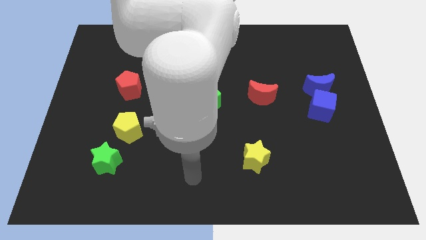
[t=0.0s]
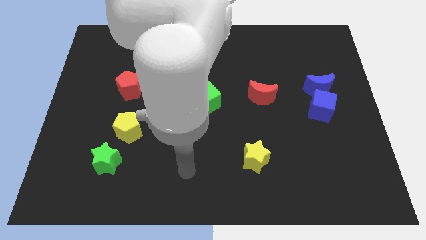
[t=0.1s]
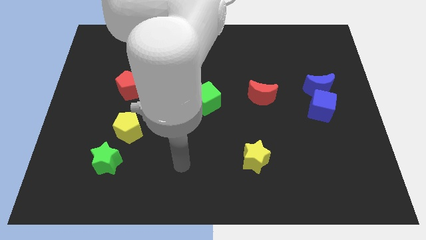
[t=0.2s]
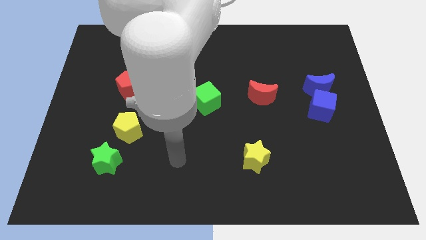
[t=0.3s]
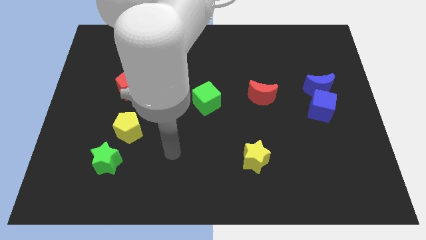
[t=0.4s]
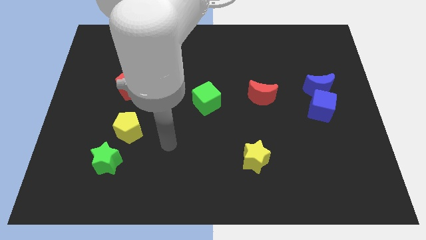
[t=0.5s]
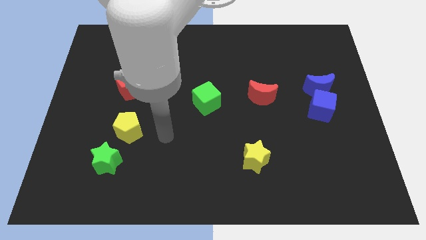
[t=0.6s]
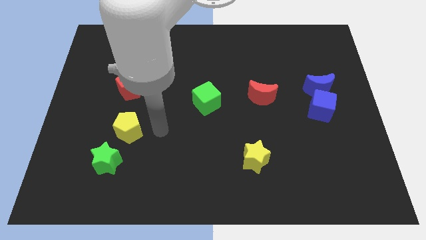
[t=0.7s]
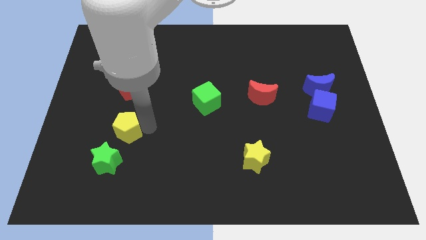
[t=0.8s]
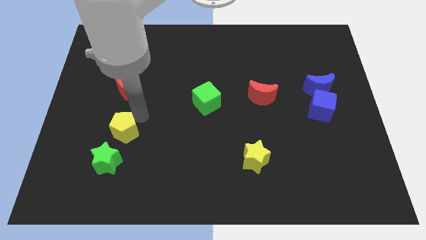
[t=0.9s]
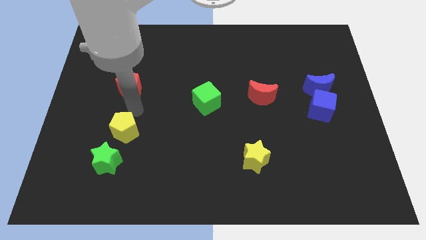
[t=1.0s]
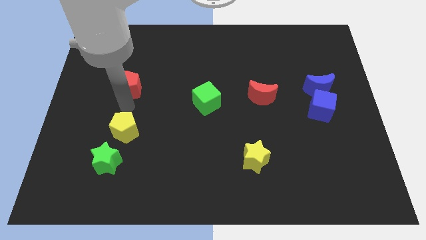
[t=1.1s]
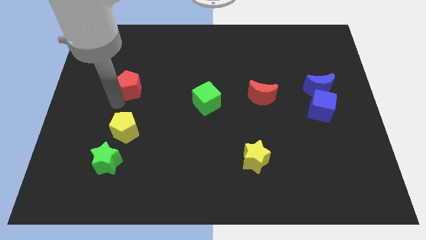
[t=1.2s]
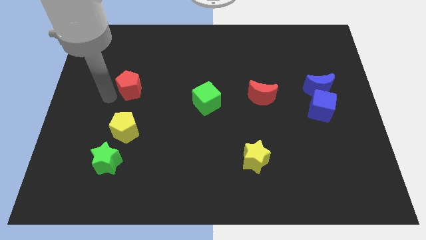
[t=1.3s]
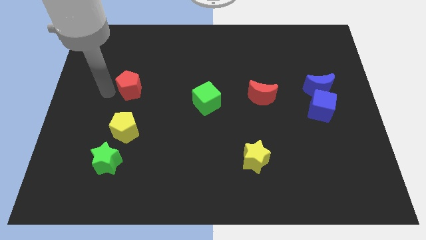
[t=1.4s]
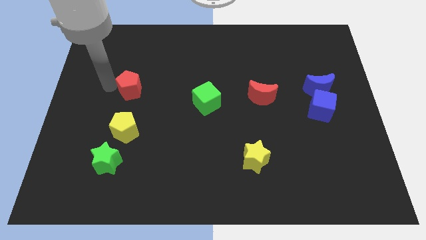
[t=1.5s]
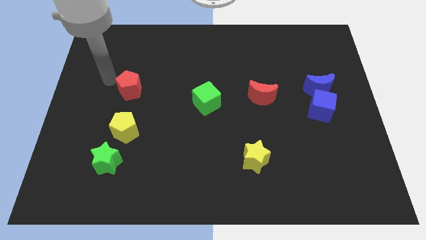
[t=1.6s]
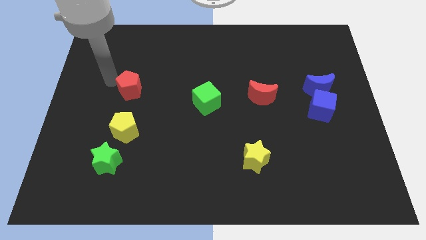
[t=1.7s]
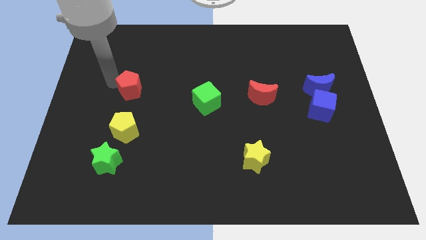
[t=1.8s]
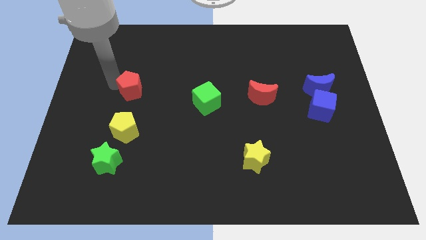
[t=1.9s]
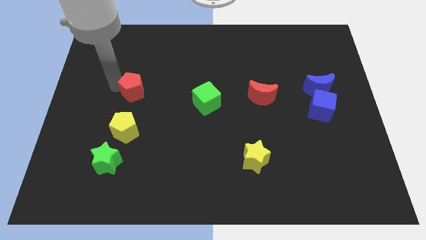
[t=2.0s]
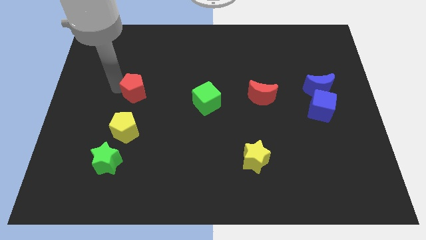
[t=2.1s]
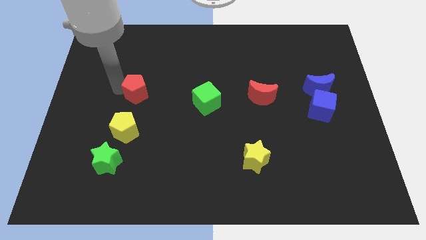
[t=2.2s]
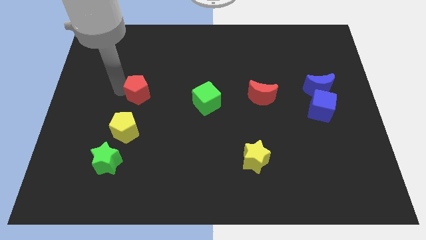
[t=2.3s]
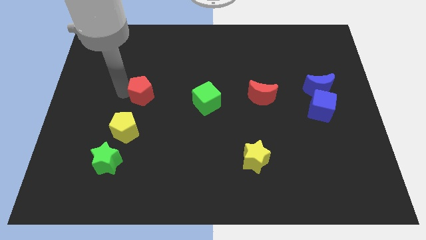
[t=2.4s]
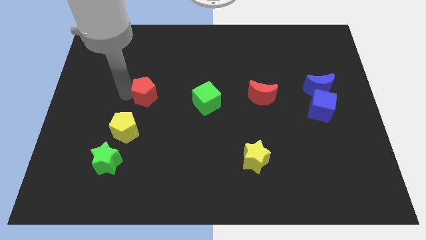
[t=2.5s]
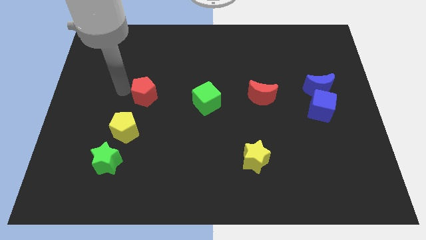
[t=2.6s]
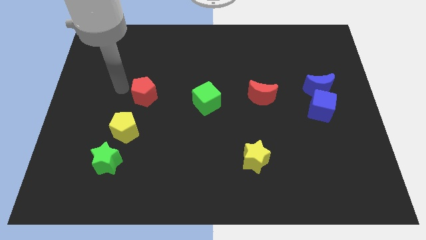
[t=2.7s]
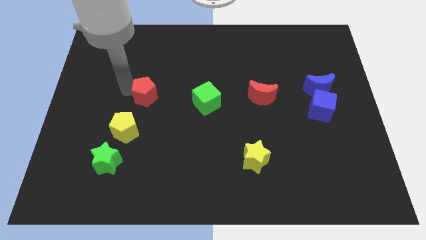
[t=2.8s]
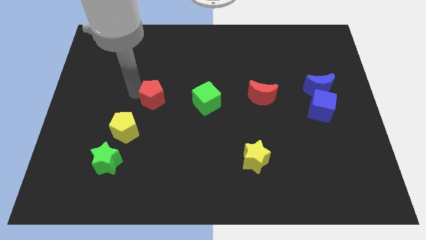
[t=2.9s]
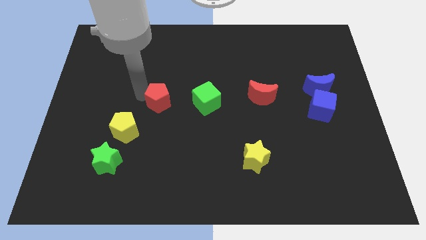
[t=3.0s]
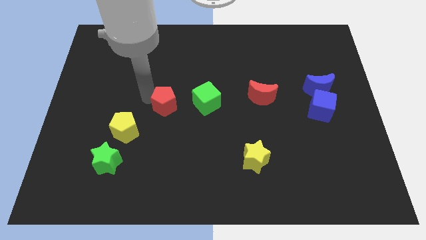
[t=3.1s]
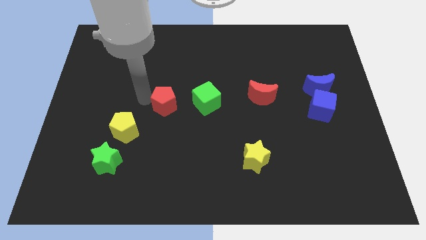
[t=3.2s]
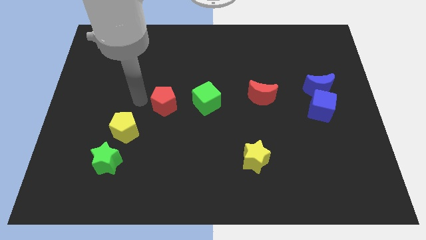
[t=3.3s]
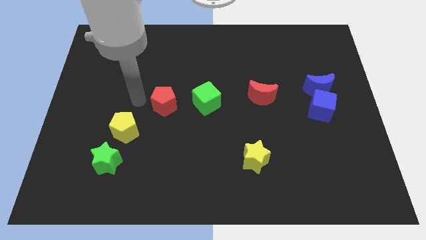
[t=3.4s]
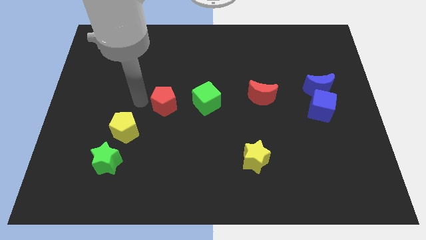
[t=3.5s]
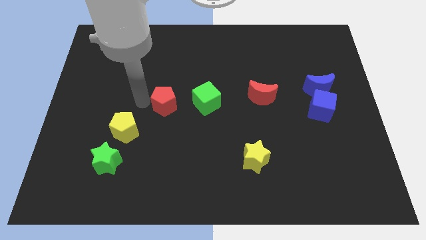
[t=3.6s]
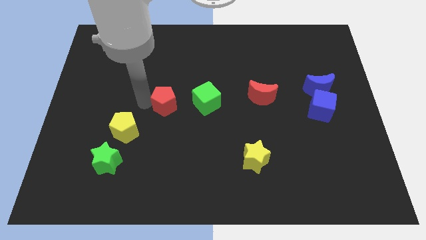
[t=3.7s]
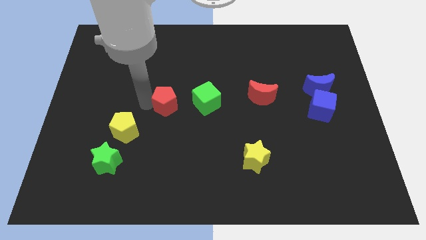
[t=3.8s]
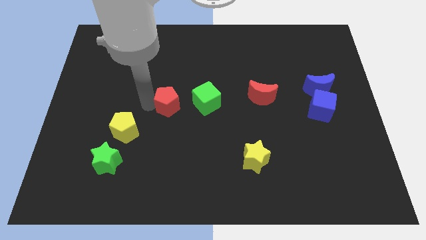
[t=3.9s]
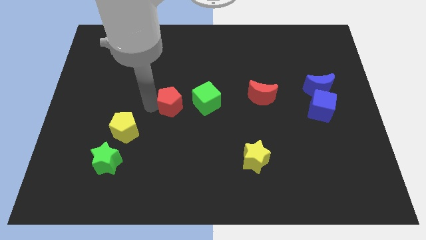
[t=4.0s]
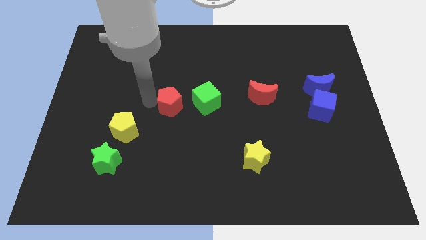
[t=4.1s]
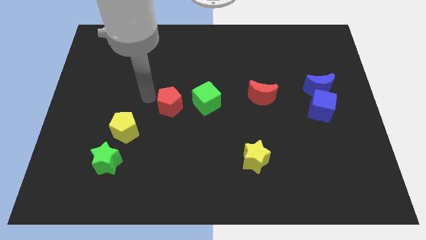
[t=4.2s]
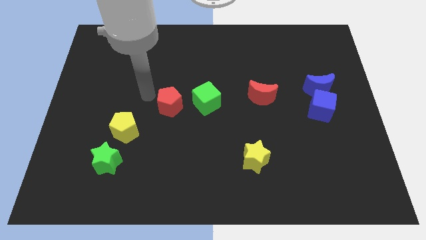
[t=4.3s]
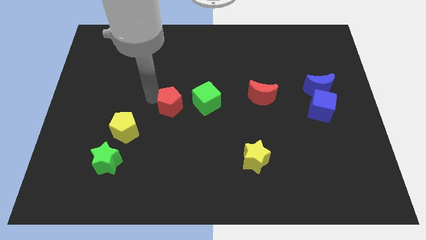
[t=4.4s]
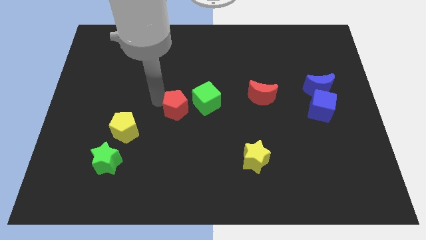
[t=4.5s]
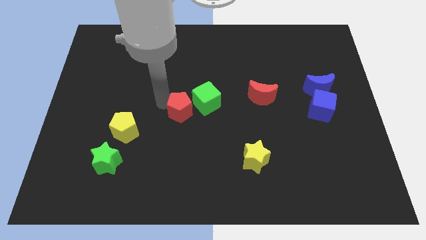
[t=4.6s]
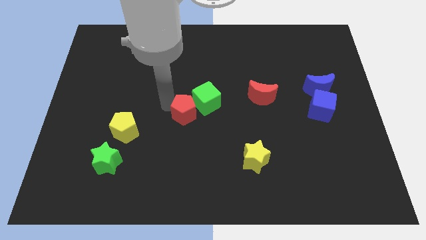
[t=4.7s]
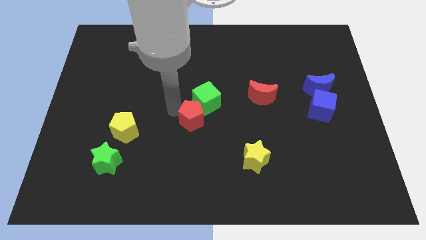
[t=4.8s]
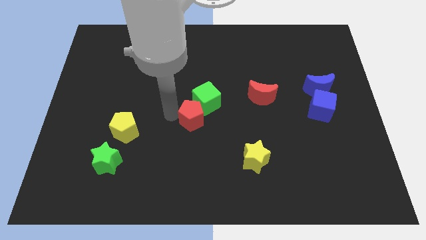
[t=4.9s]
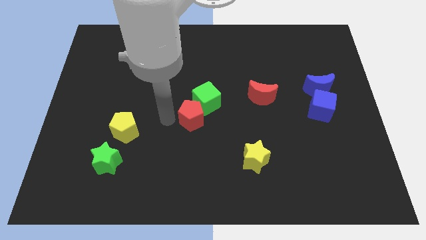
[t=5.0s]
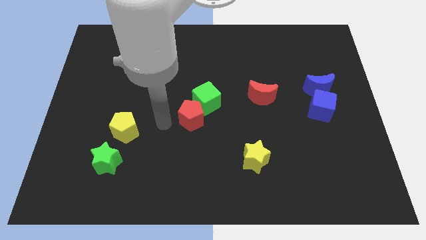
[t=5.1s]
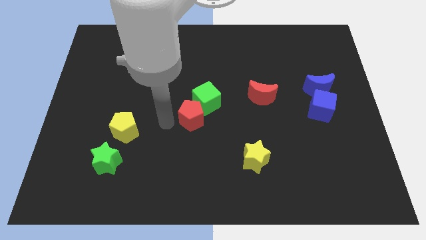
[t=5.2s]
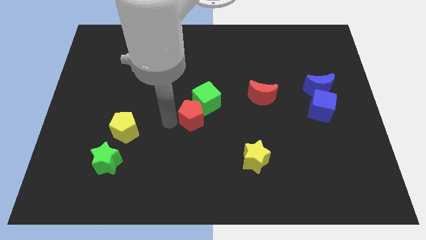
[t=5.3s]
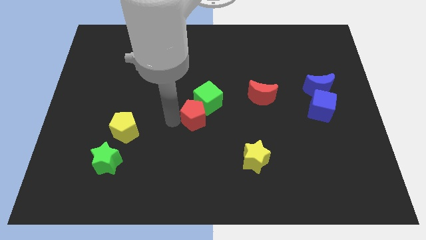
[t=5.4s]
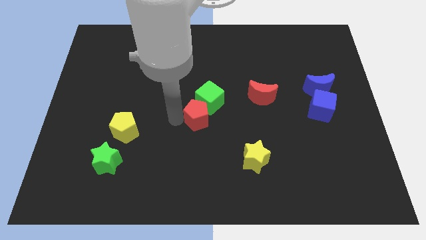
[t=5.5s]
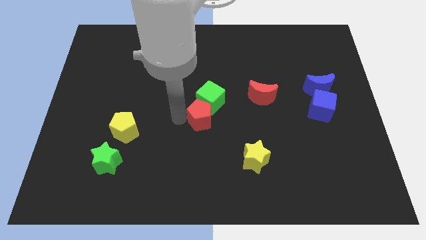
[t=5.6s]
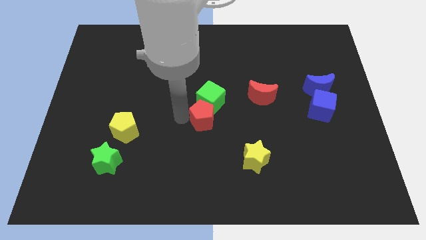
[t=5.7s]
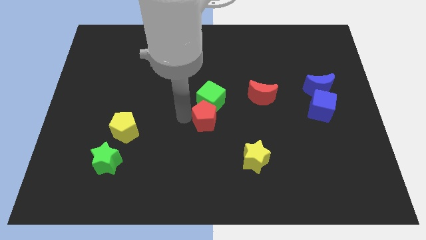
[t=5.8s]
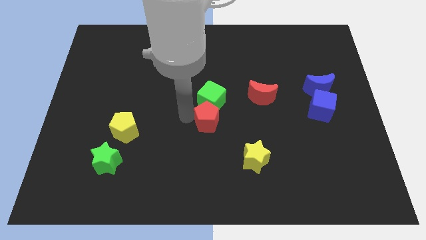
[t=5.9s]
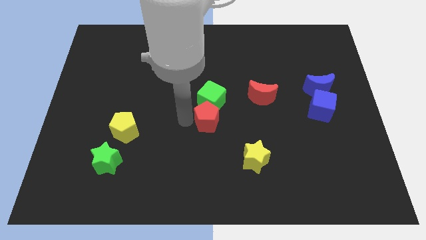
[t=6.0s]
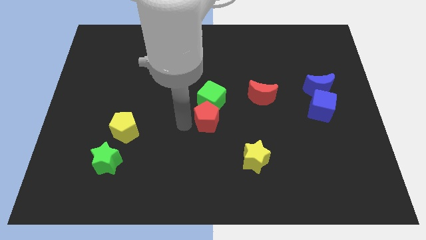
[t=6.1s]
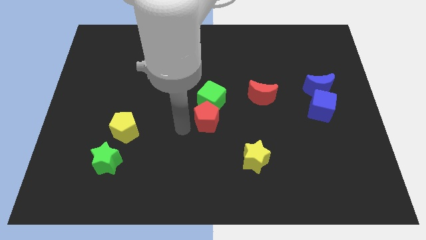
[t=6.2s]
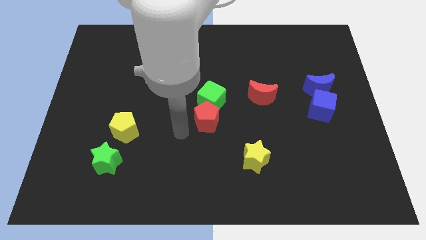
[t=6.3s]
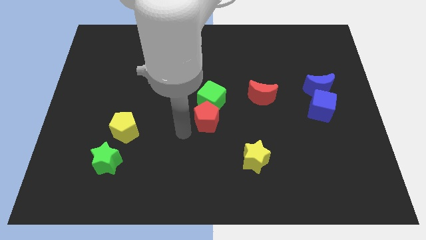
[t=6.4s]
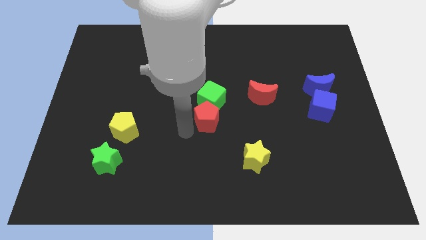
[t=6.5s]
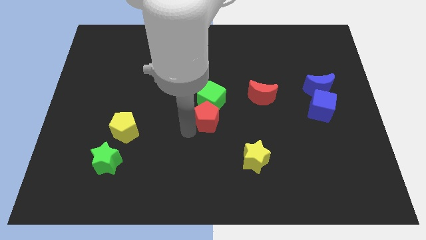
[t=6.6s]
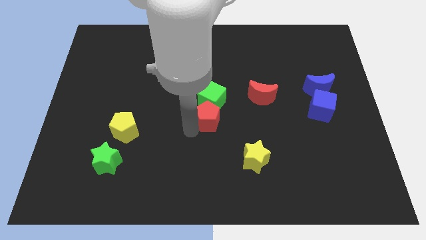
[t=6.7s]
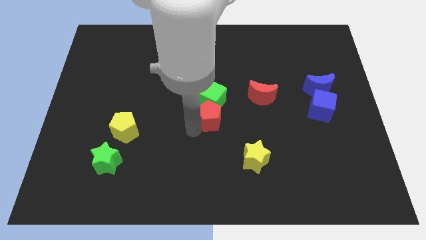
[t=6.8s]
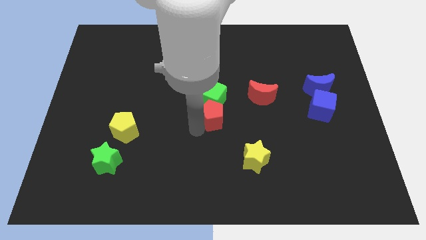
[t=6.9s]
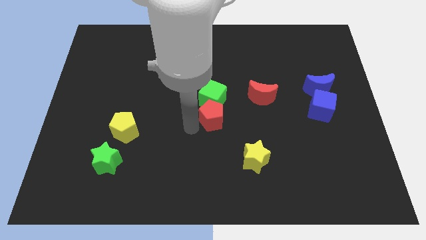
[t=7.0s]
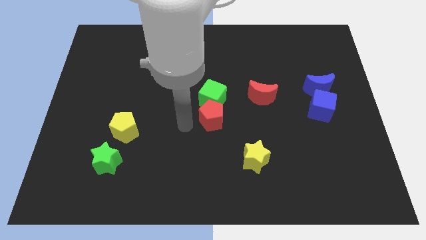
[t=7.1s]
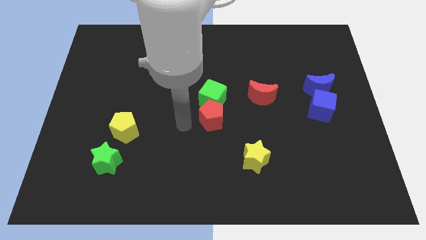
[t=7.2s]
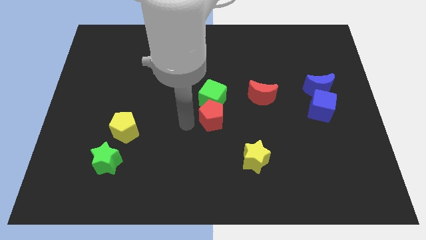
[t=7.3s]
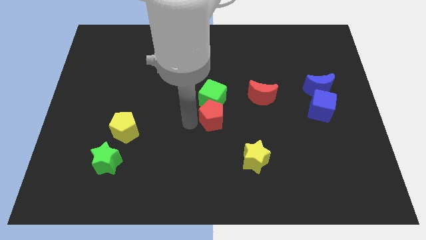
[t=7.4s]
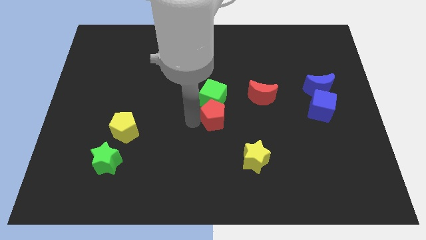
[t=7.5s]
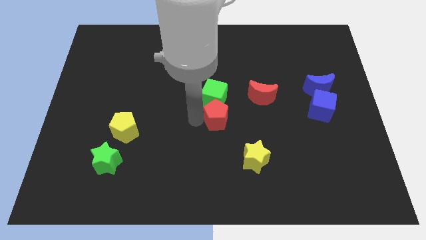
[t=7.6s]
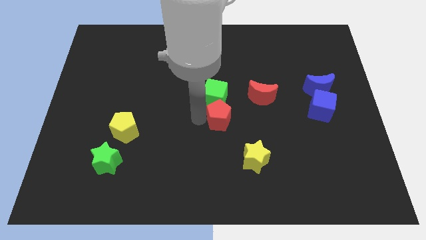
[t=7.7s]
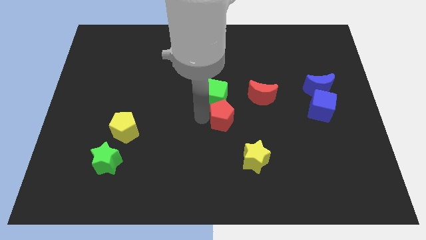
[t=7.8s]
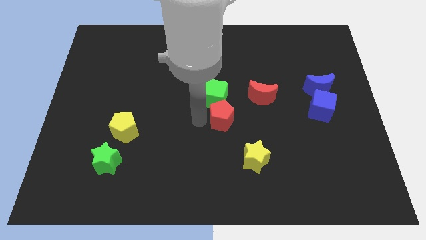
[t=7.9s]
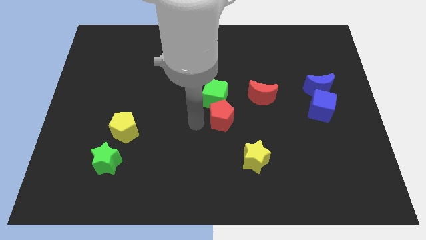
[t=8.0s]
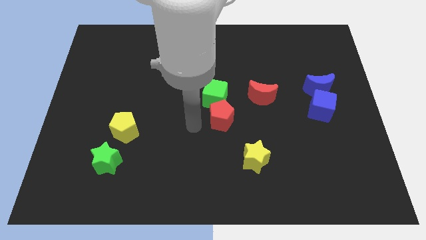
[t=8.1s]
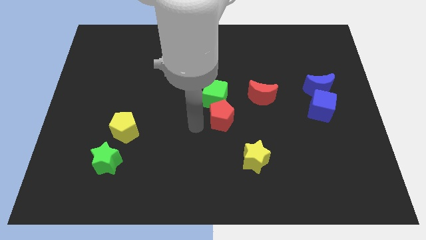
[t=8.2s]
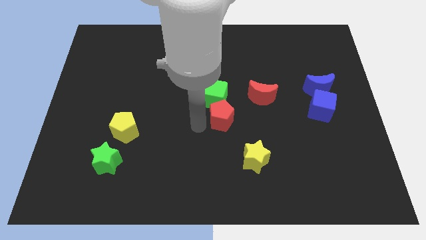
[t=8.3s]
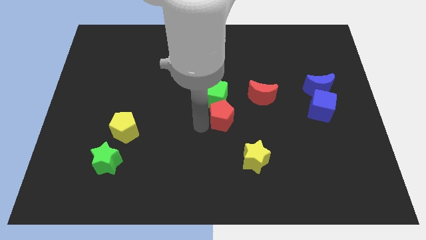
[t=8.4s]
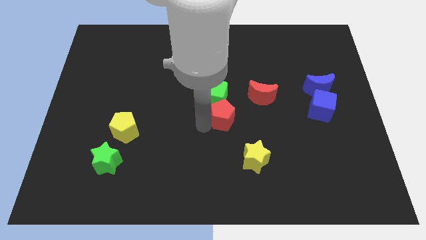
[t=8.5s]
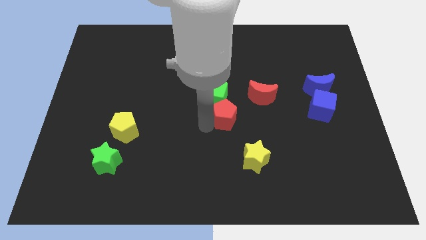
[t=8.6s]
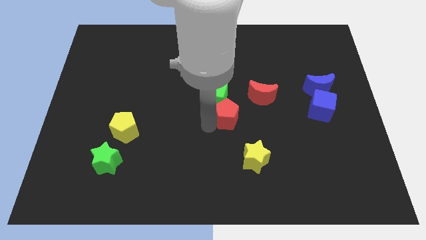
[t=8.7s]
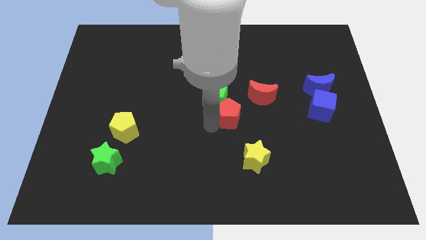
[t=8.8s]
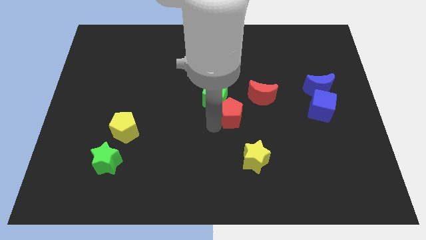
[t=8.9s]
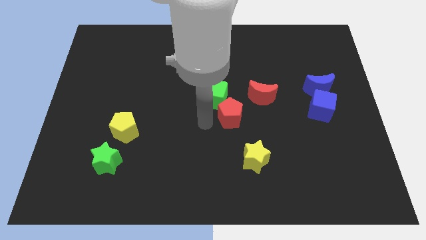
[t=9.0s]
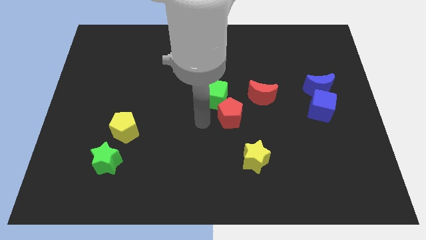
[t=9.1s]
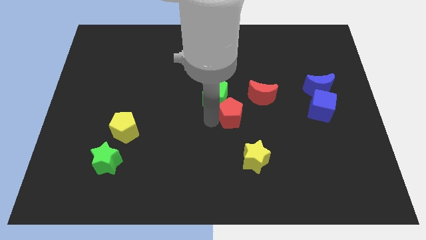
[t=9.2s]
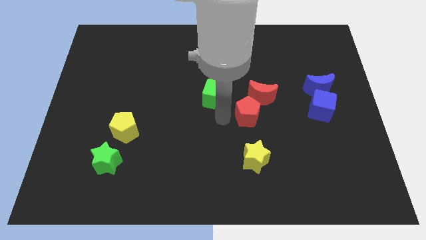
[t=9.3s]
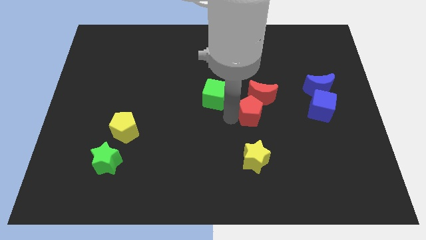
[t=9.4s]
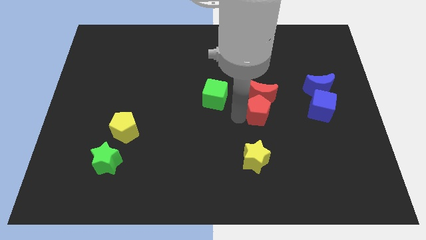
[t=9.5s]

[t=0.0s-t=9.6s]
slide the red pentagon to the left of the blue cube
